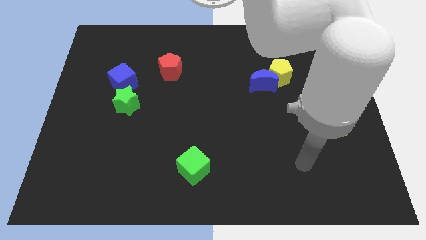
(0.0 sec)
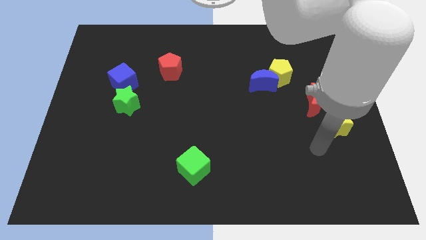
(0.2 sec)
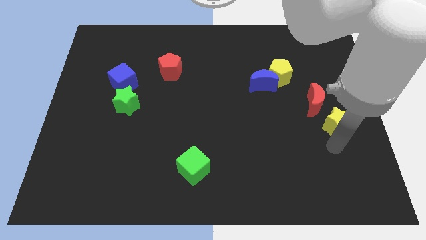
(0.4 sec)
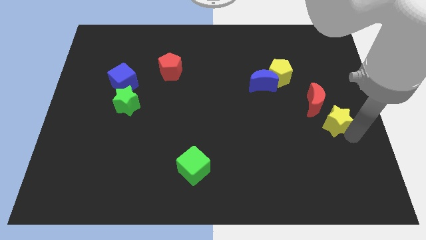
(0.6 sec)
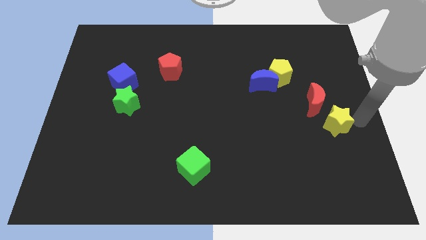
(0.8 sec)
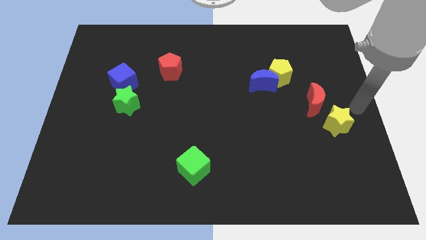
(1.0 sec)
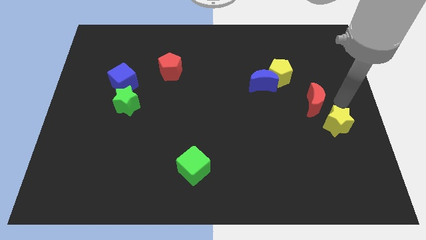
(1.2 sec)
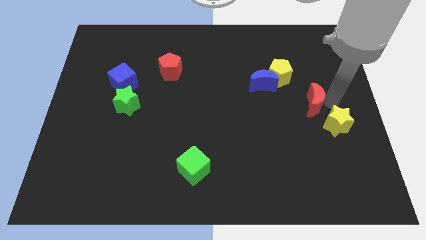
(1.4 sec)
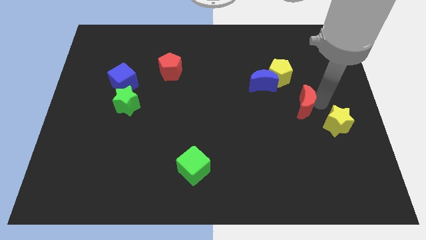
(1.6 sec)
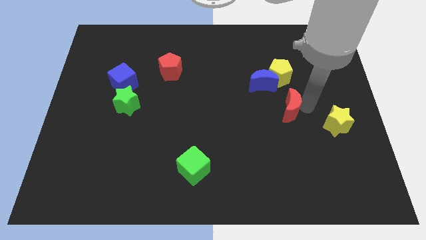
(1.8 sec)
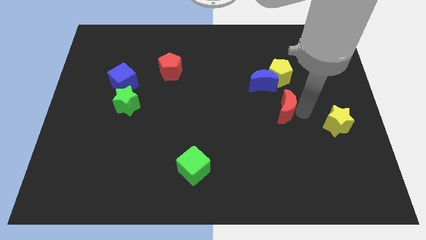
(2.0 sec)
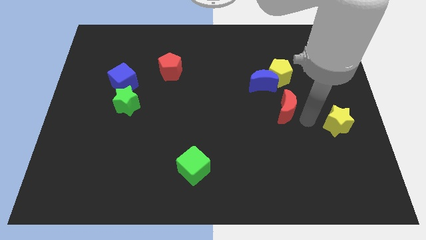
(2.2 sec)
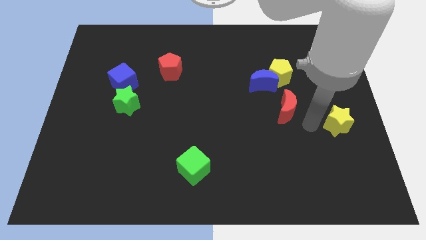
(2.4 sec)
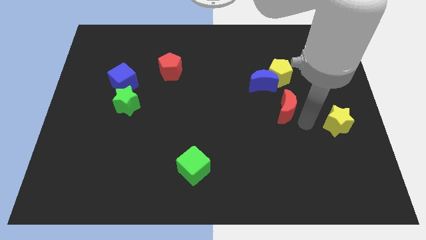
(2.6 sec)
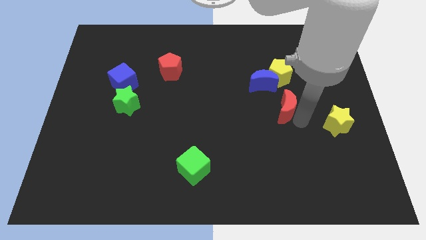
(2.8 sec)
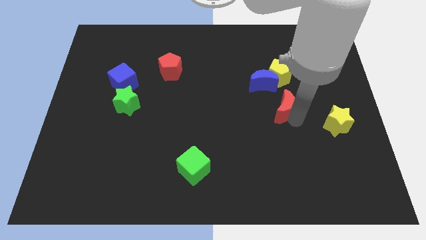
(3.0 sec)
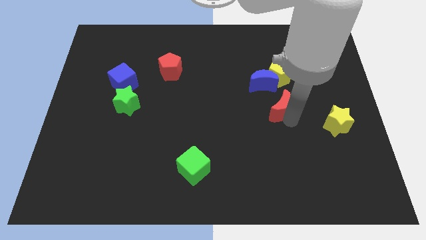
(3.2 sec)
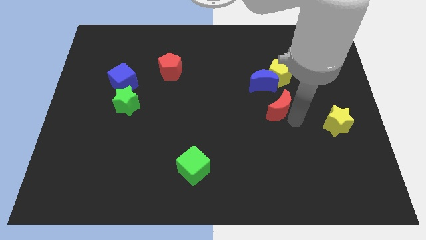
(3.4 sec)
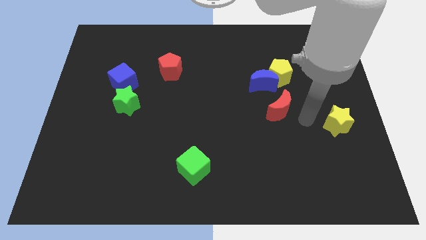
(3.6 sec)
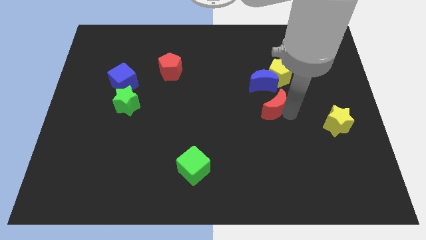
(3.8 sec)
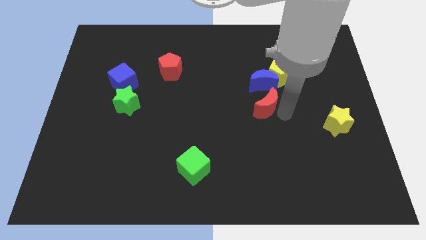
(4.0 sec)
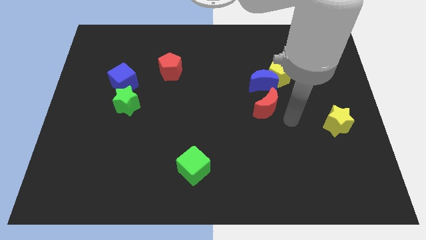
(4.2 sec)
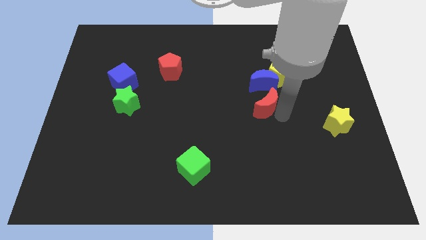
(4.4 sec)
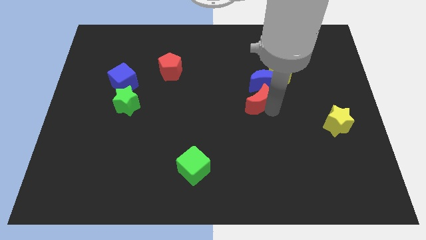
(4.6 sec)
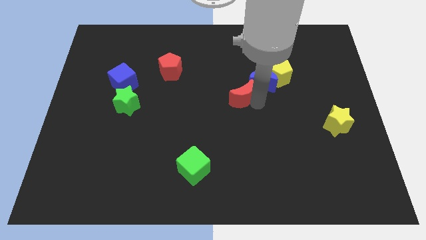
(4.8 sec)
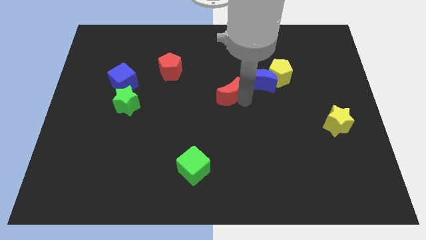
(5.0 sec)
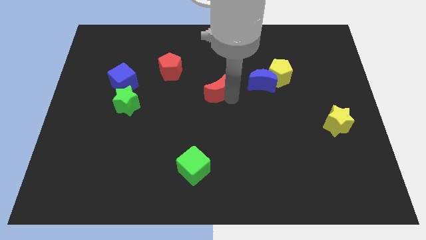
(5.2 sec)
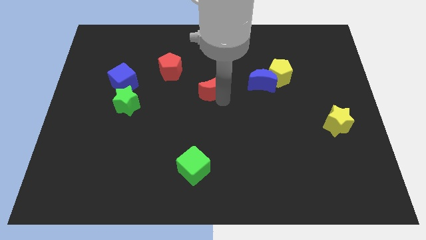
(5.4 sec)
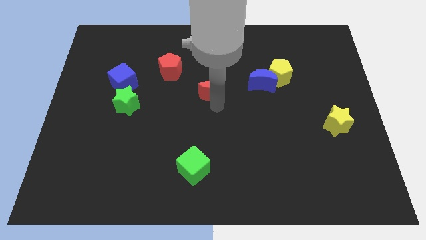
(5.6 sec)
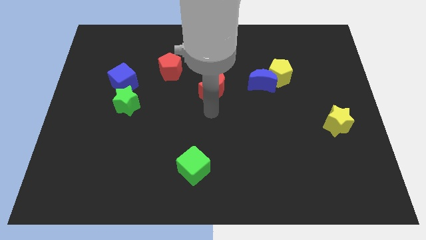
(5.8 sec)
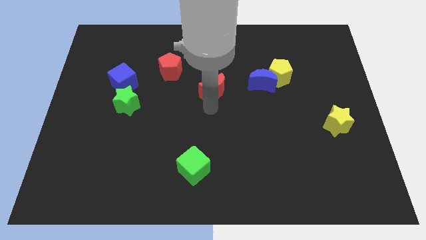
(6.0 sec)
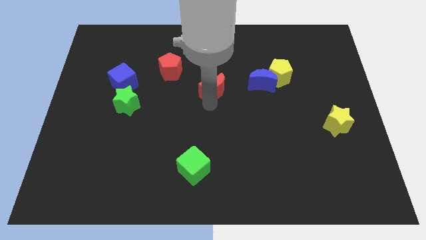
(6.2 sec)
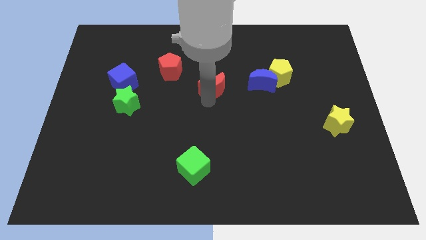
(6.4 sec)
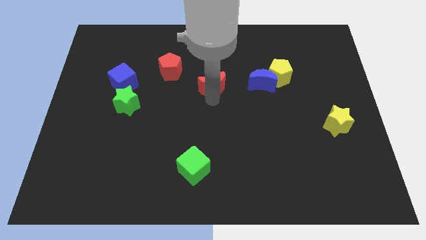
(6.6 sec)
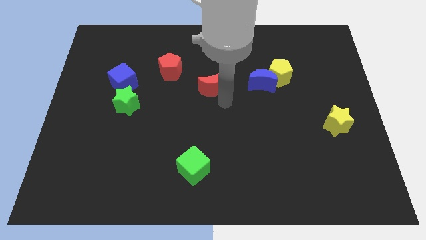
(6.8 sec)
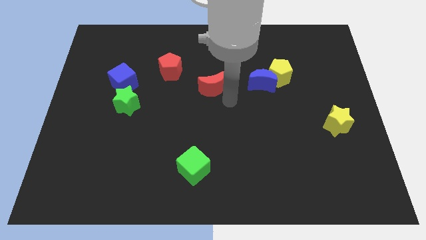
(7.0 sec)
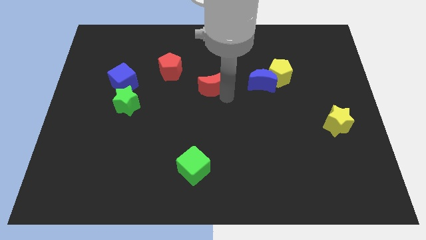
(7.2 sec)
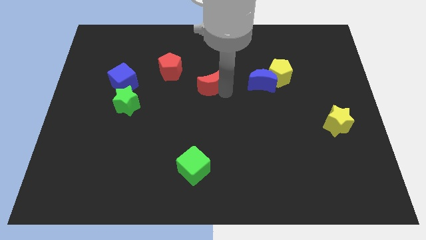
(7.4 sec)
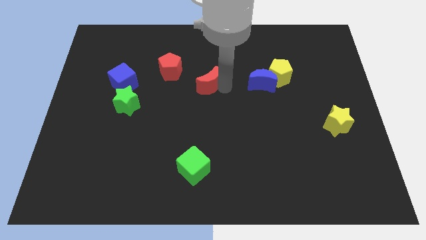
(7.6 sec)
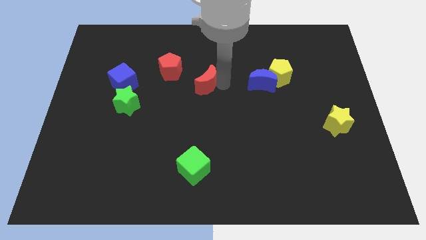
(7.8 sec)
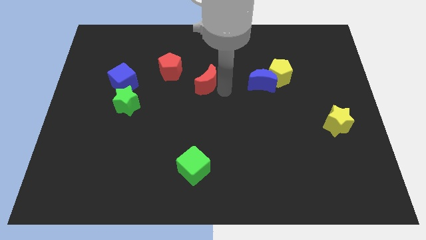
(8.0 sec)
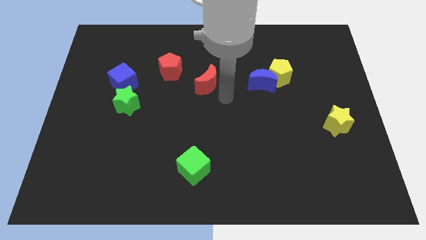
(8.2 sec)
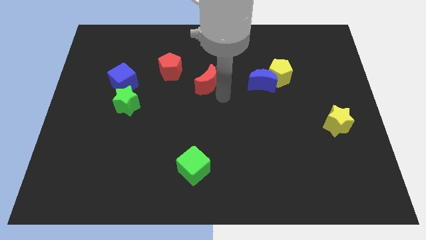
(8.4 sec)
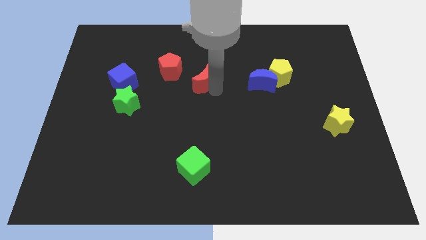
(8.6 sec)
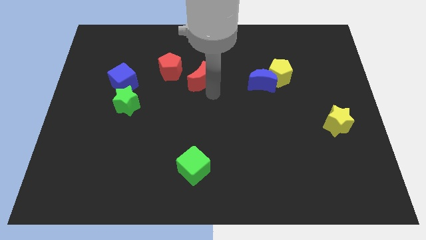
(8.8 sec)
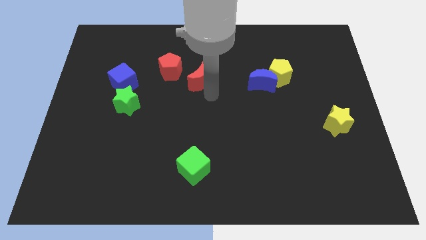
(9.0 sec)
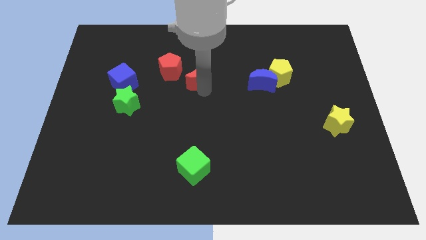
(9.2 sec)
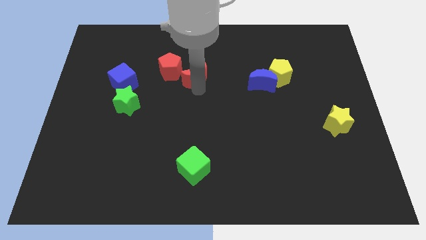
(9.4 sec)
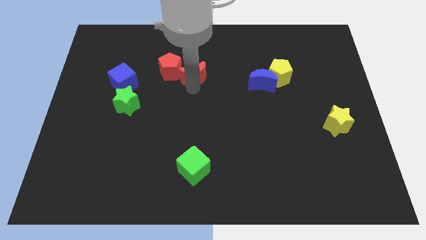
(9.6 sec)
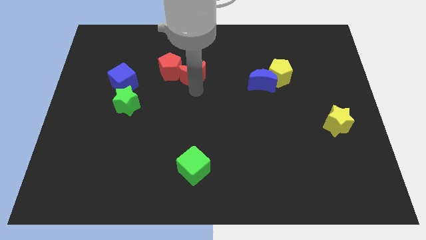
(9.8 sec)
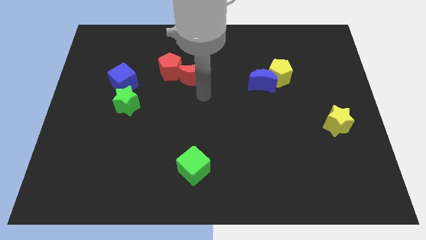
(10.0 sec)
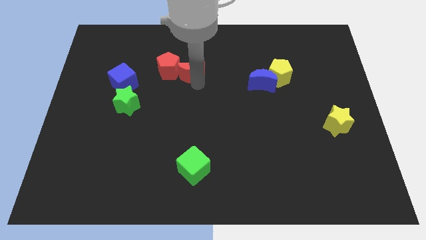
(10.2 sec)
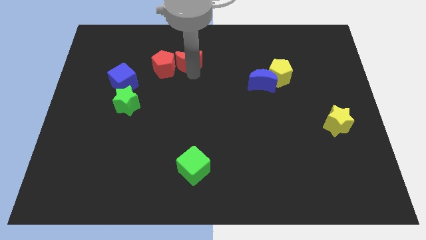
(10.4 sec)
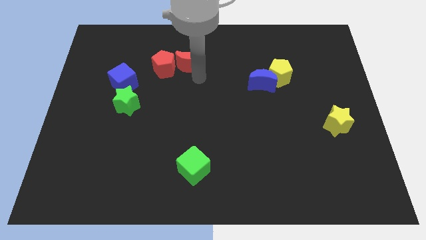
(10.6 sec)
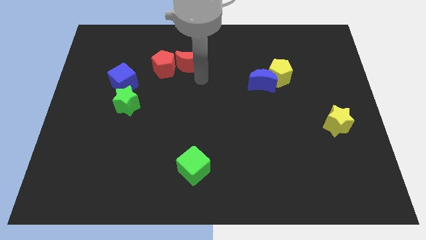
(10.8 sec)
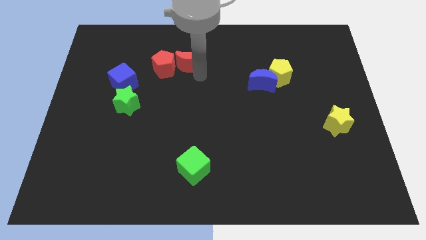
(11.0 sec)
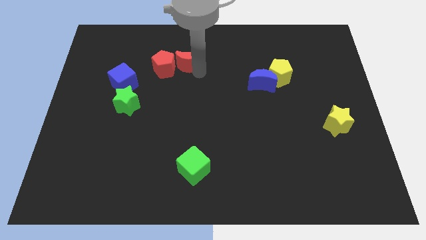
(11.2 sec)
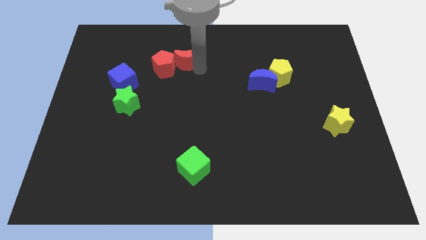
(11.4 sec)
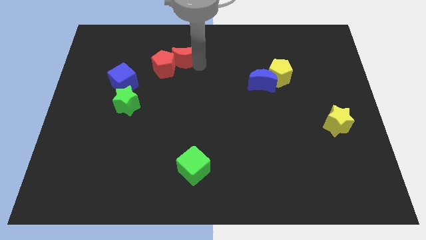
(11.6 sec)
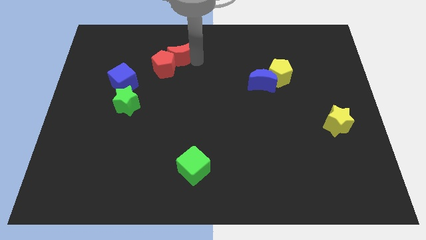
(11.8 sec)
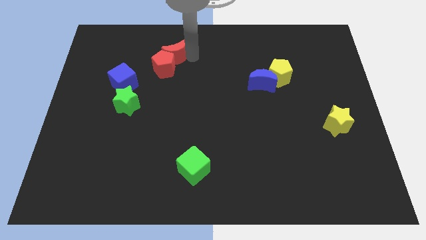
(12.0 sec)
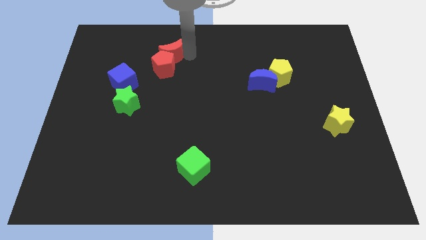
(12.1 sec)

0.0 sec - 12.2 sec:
move the red moon to the top left of the red pentagon
